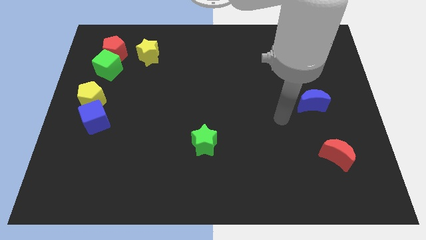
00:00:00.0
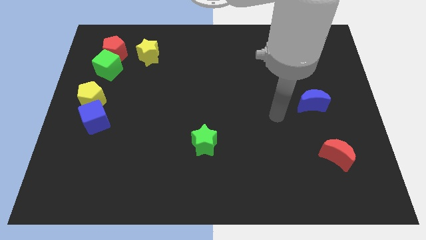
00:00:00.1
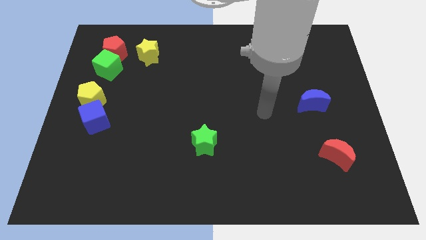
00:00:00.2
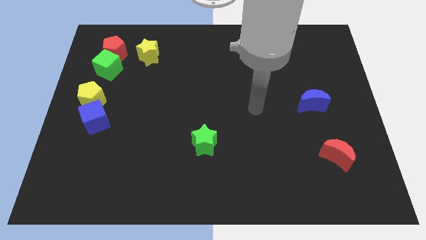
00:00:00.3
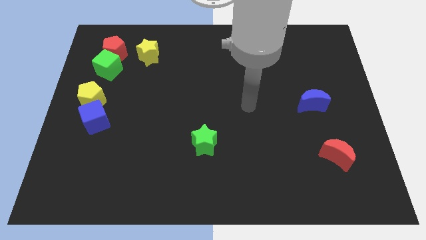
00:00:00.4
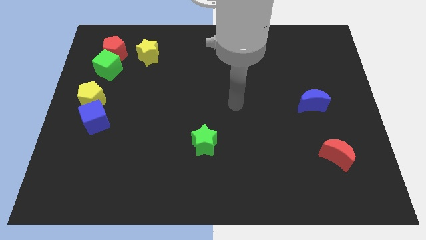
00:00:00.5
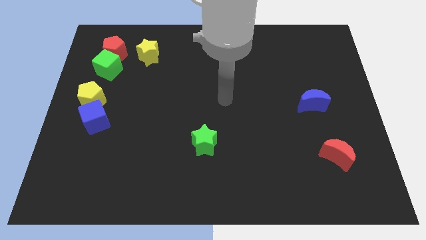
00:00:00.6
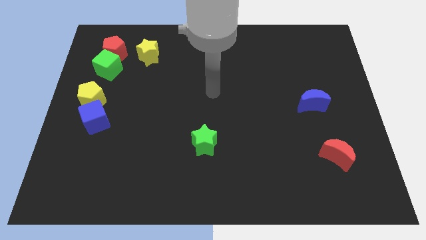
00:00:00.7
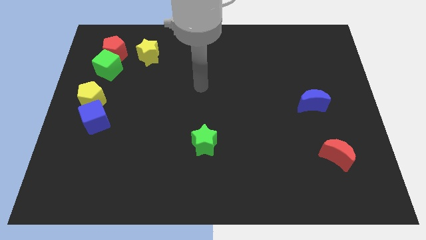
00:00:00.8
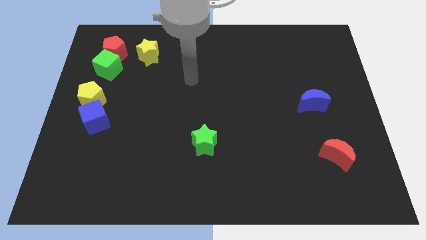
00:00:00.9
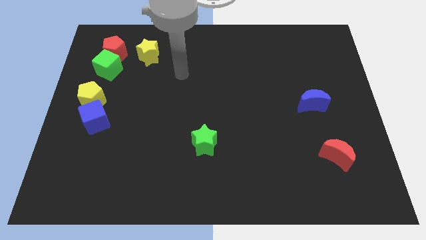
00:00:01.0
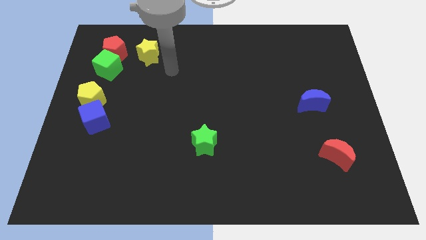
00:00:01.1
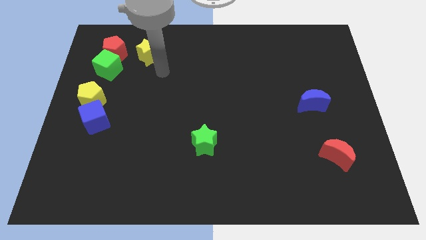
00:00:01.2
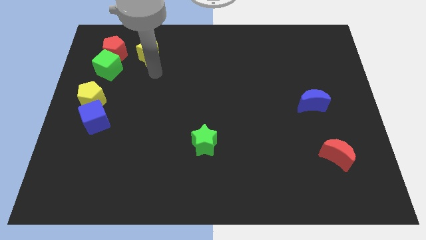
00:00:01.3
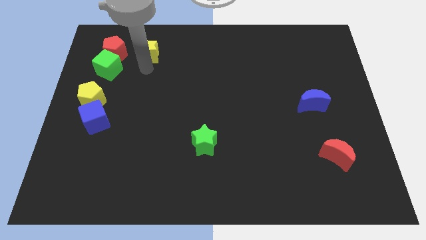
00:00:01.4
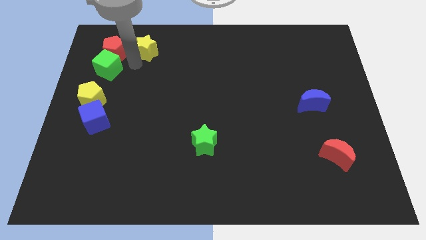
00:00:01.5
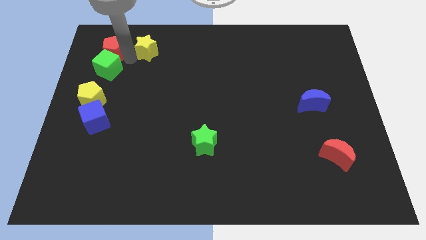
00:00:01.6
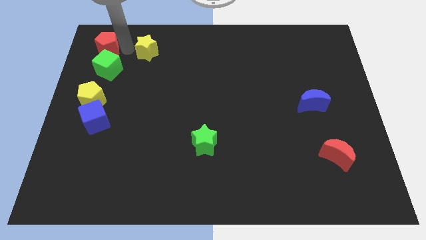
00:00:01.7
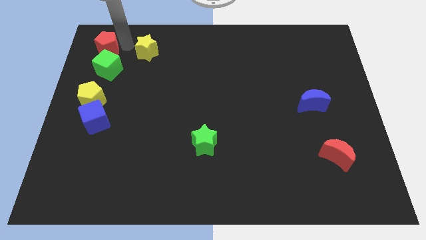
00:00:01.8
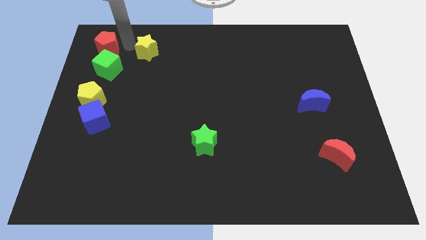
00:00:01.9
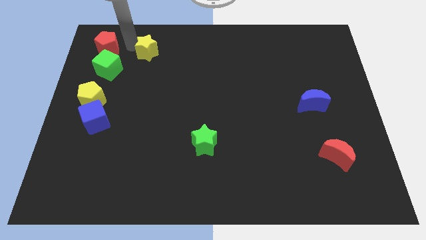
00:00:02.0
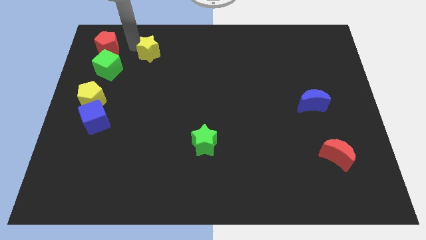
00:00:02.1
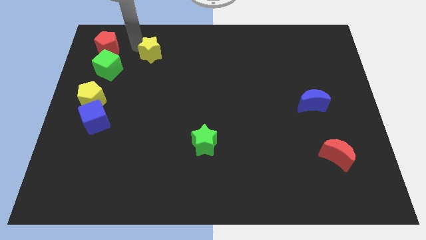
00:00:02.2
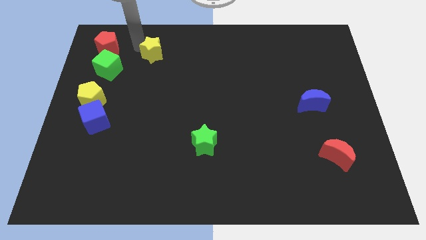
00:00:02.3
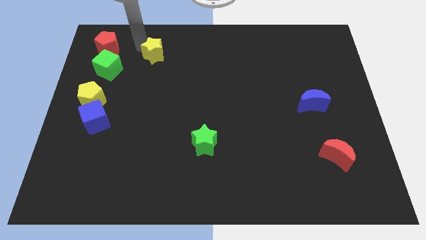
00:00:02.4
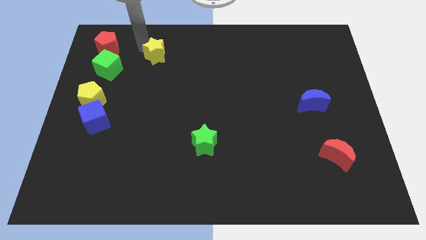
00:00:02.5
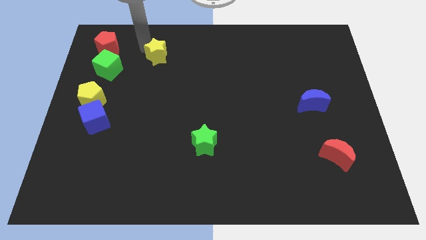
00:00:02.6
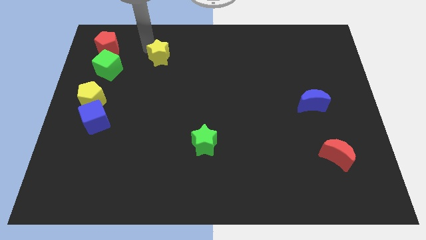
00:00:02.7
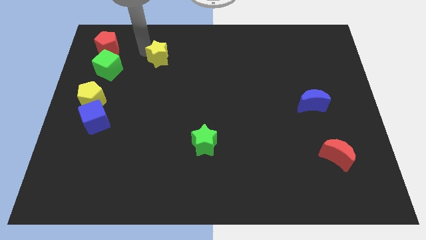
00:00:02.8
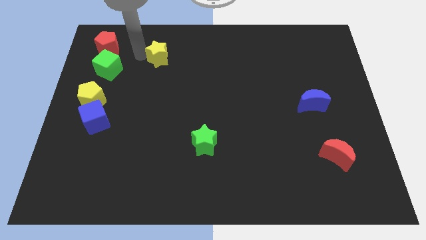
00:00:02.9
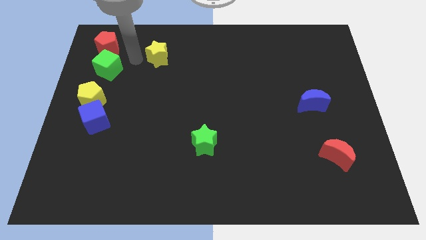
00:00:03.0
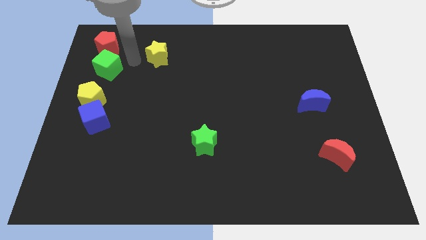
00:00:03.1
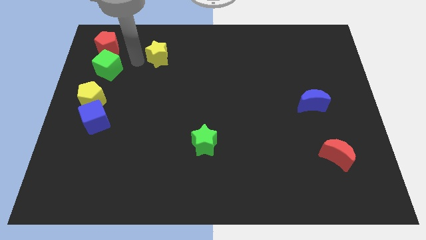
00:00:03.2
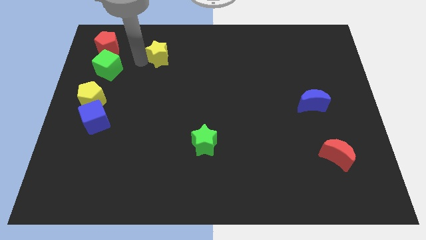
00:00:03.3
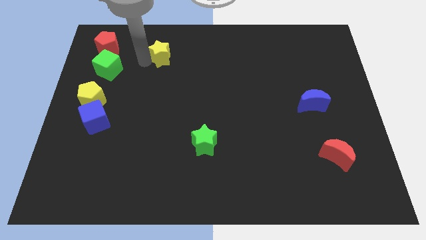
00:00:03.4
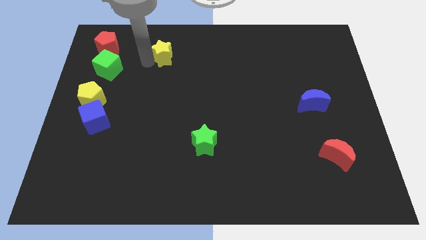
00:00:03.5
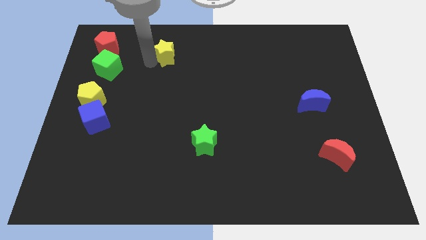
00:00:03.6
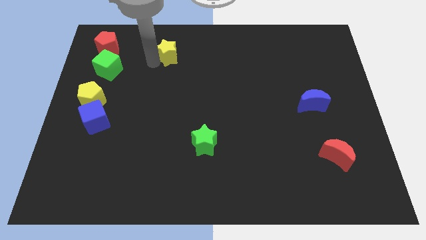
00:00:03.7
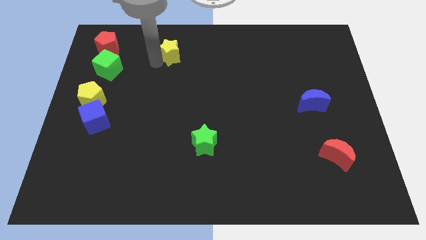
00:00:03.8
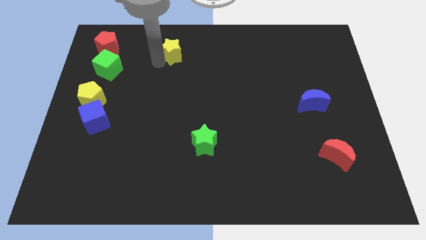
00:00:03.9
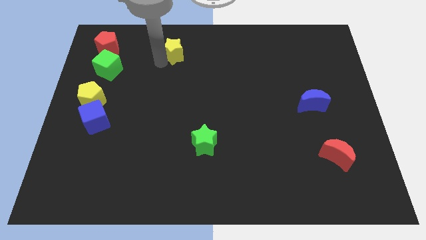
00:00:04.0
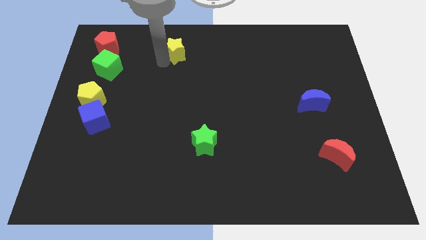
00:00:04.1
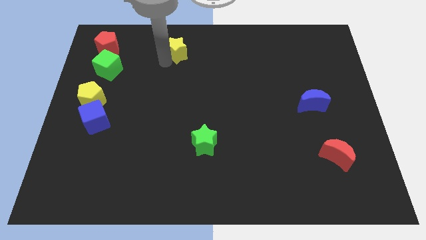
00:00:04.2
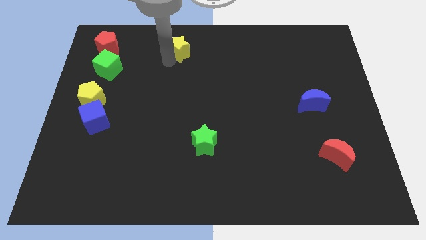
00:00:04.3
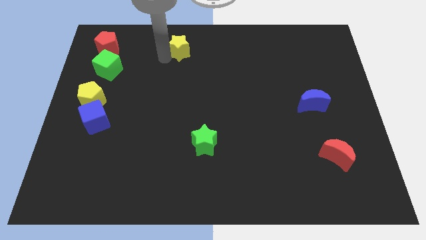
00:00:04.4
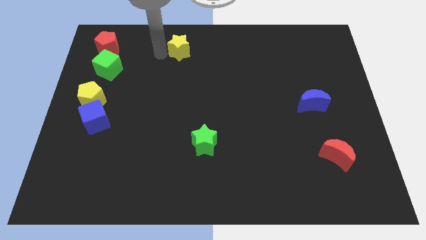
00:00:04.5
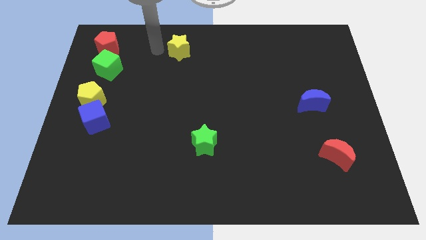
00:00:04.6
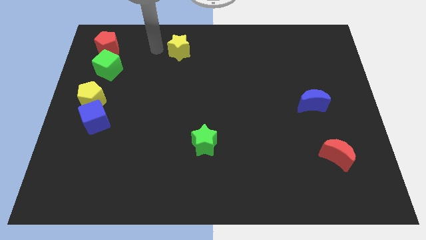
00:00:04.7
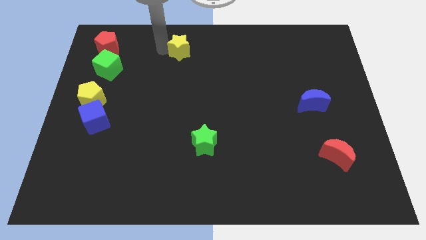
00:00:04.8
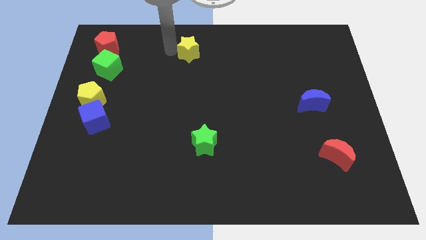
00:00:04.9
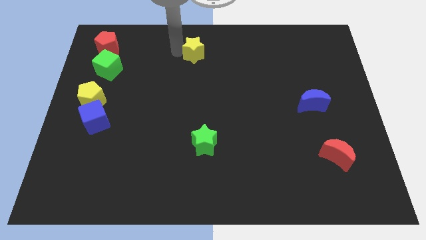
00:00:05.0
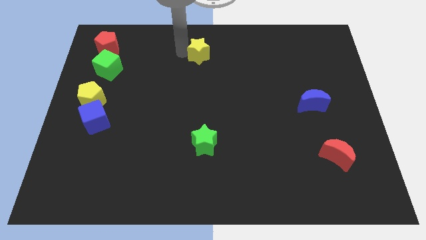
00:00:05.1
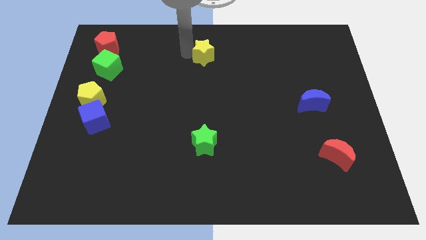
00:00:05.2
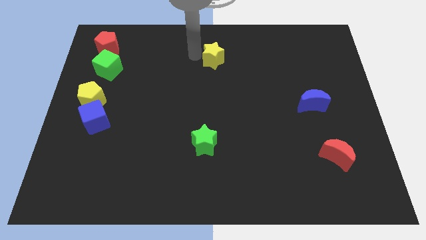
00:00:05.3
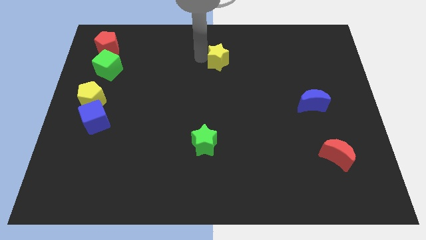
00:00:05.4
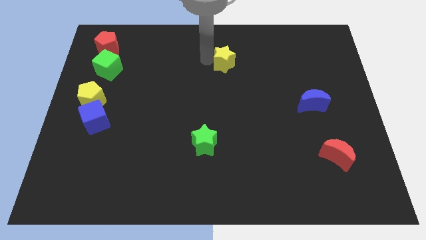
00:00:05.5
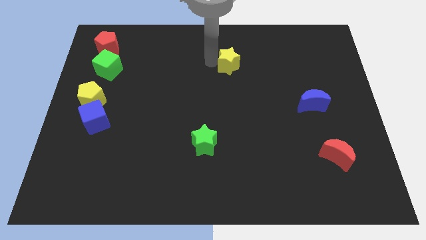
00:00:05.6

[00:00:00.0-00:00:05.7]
push the yellow star right

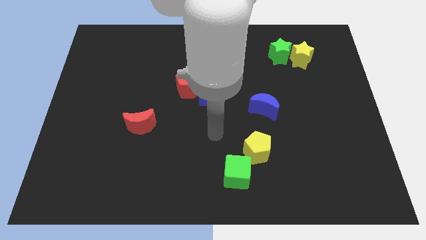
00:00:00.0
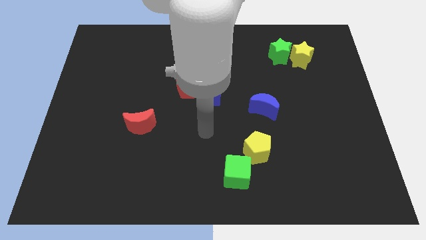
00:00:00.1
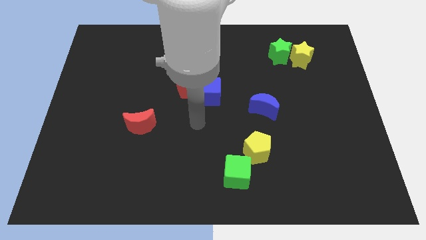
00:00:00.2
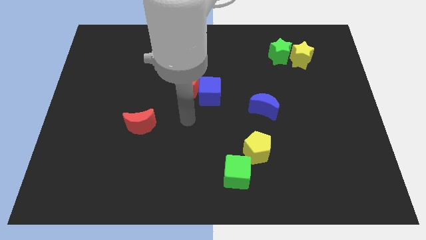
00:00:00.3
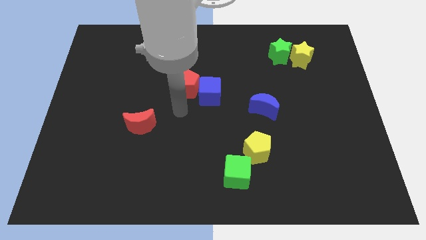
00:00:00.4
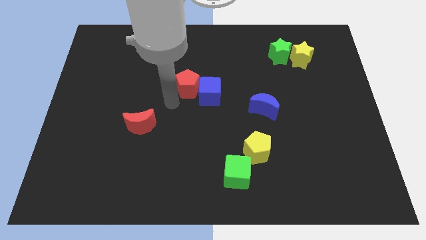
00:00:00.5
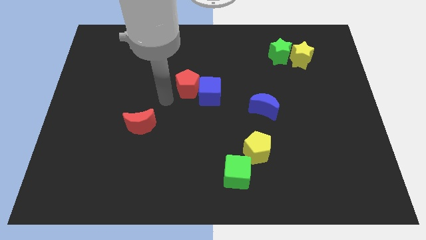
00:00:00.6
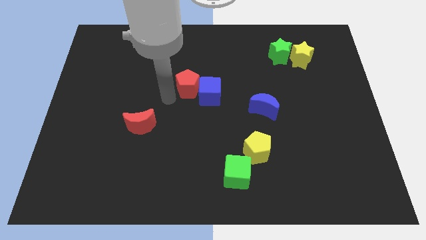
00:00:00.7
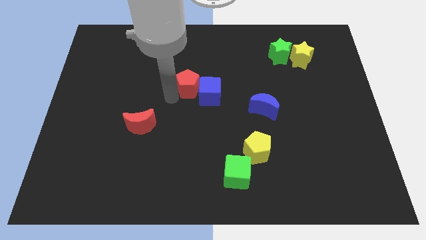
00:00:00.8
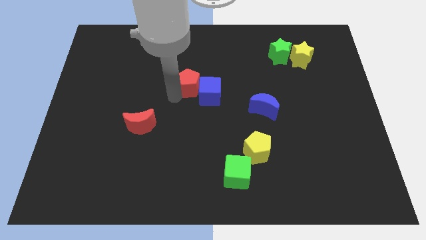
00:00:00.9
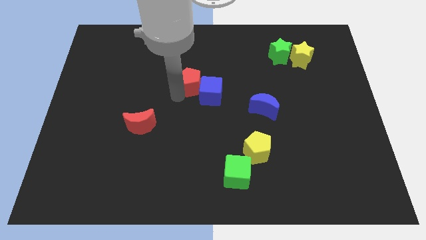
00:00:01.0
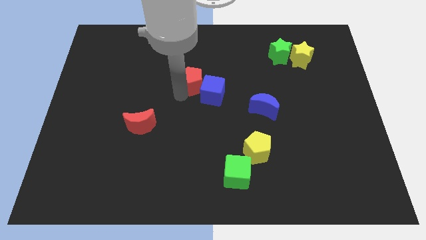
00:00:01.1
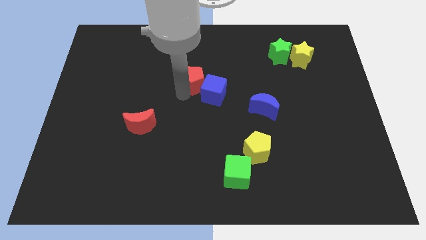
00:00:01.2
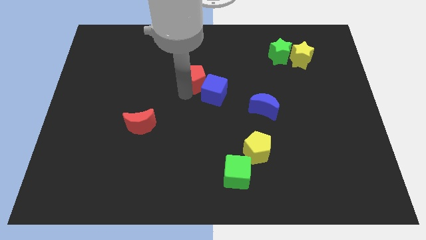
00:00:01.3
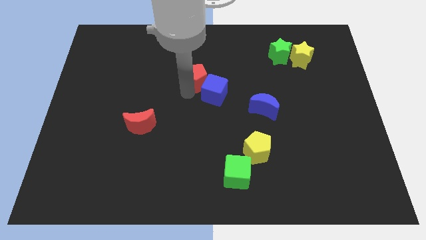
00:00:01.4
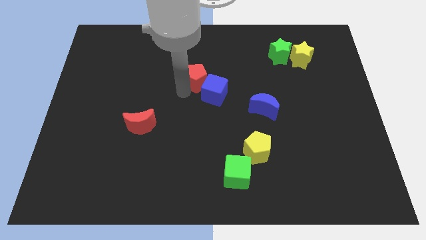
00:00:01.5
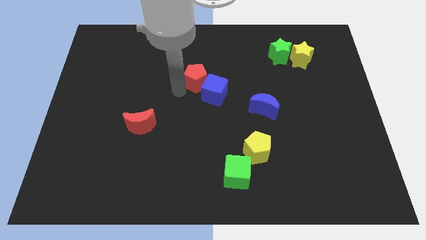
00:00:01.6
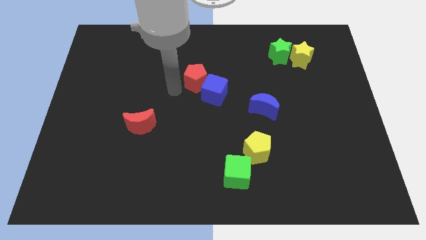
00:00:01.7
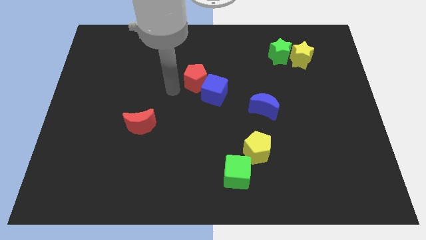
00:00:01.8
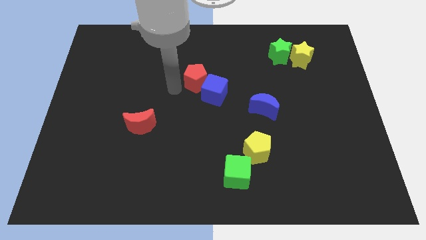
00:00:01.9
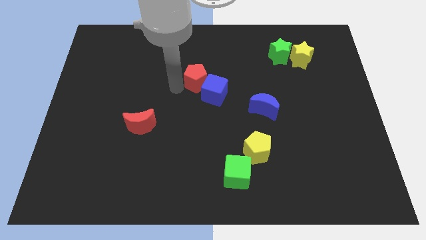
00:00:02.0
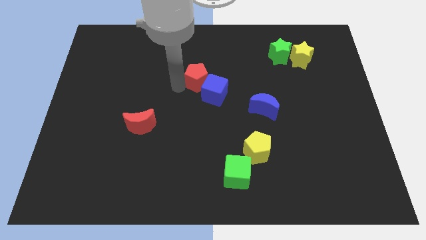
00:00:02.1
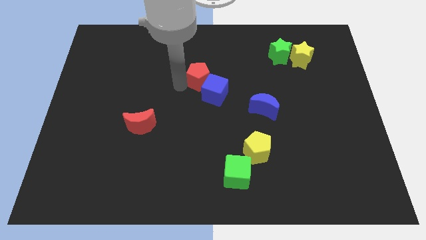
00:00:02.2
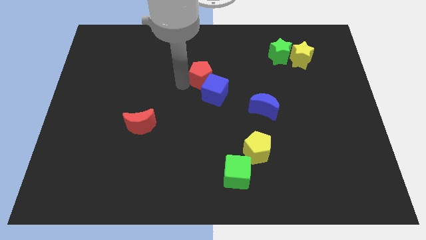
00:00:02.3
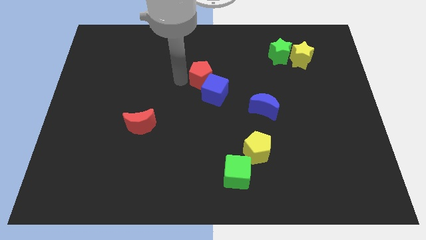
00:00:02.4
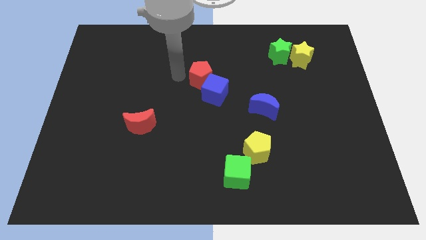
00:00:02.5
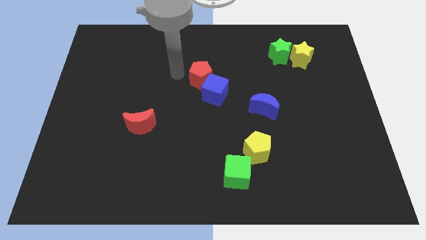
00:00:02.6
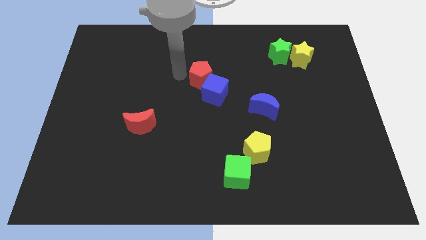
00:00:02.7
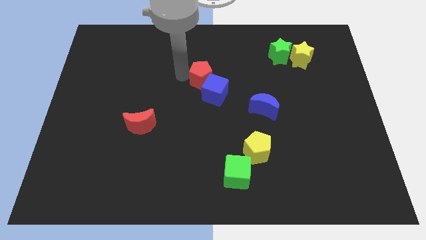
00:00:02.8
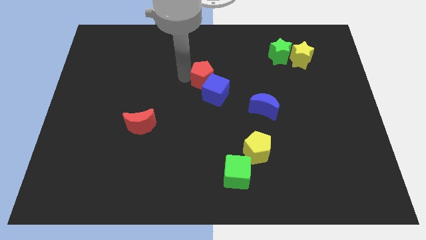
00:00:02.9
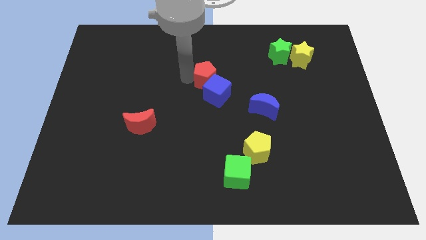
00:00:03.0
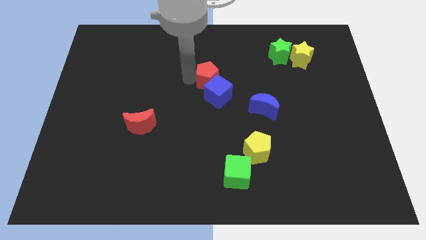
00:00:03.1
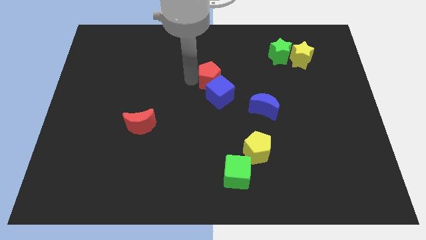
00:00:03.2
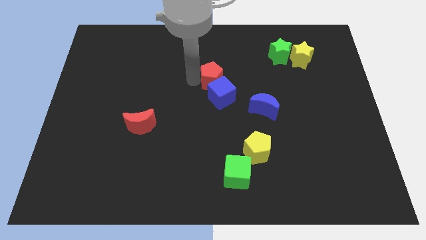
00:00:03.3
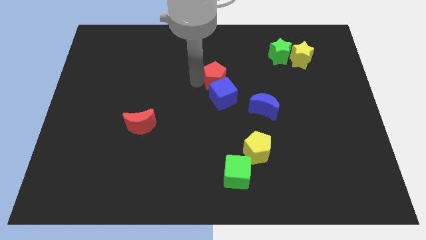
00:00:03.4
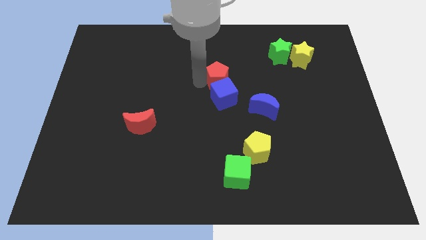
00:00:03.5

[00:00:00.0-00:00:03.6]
push the red pentagon to the right slightly
